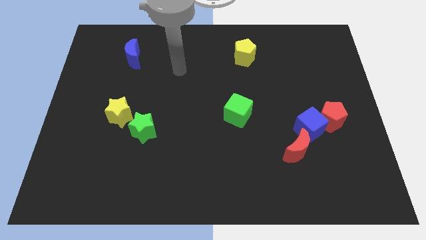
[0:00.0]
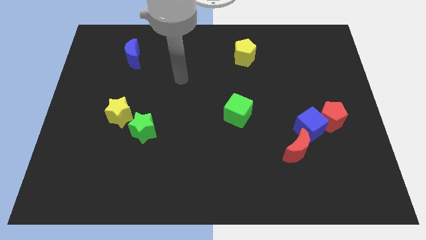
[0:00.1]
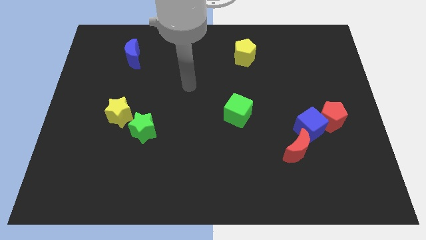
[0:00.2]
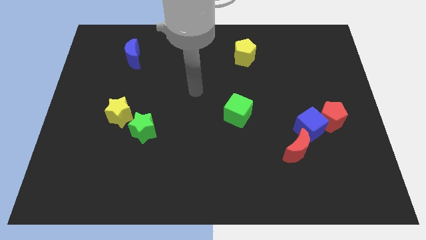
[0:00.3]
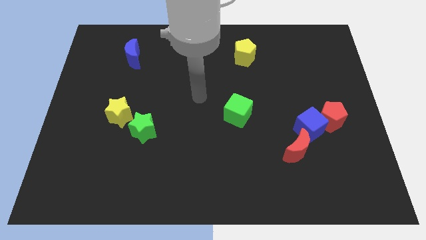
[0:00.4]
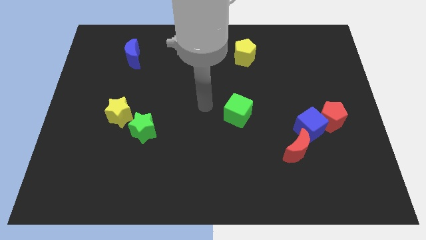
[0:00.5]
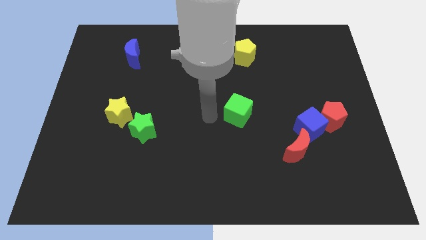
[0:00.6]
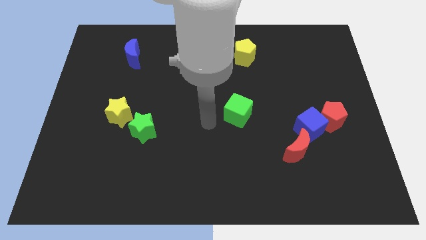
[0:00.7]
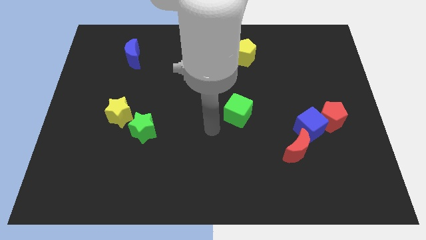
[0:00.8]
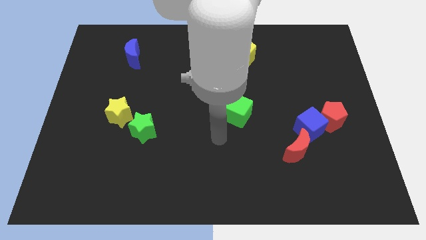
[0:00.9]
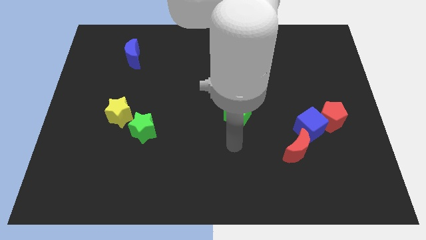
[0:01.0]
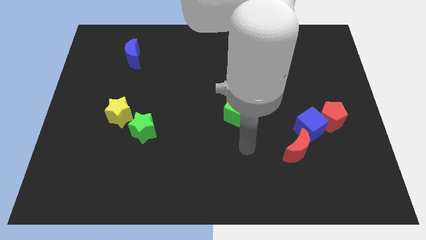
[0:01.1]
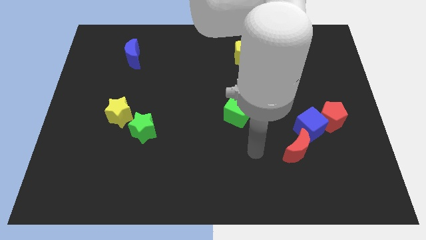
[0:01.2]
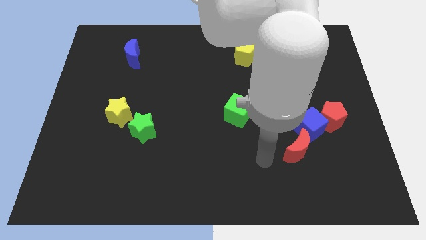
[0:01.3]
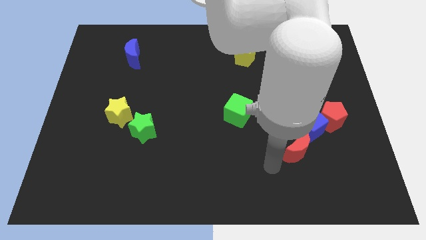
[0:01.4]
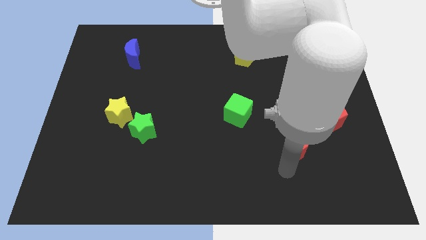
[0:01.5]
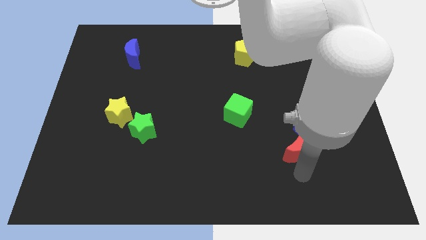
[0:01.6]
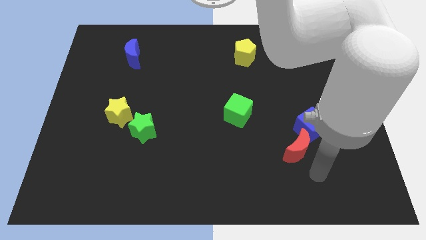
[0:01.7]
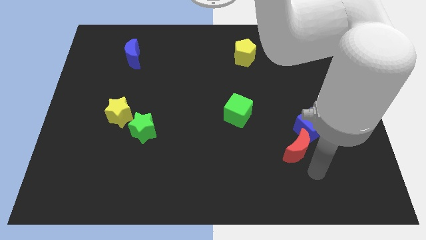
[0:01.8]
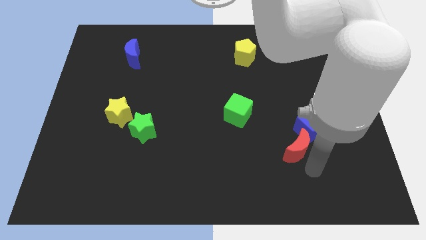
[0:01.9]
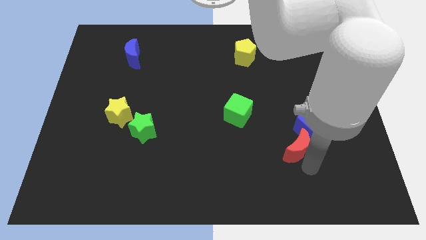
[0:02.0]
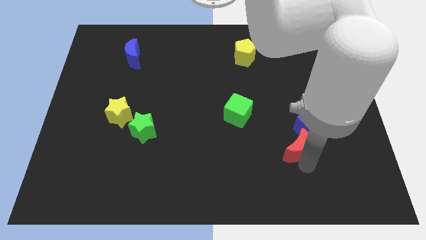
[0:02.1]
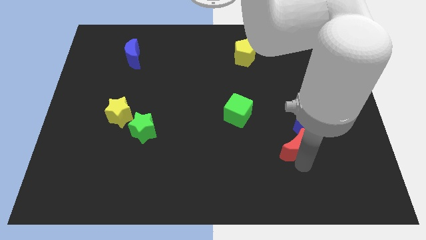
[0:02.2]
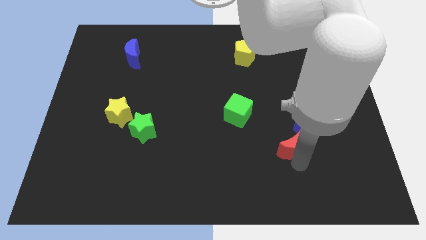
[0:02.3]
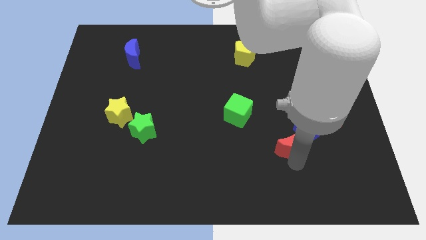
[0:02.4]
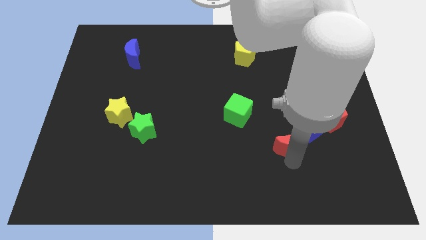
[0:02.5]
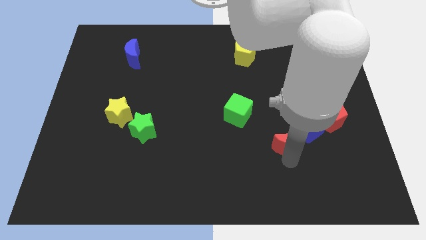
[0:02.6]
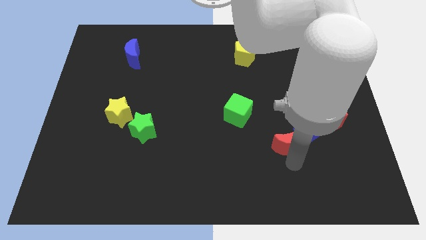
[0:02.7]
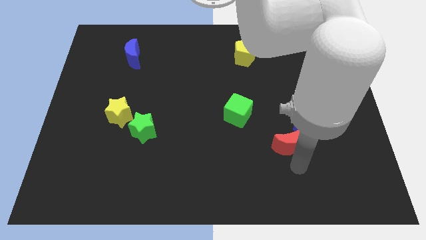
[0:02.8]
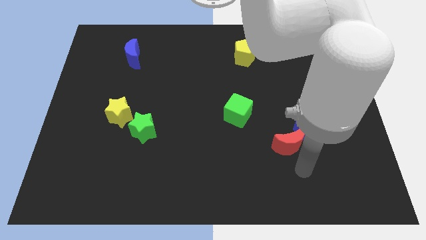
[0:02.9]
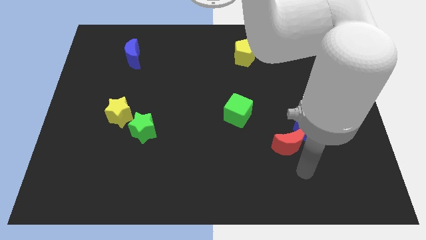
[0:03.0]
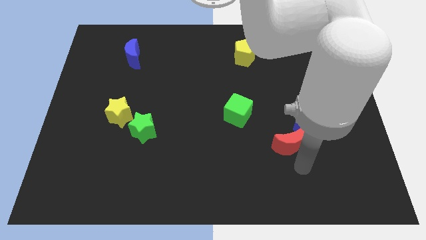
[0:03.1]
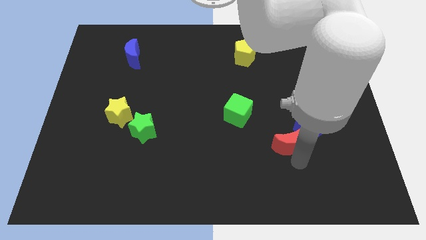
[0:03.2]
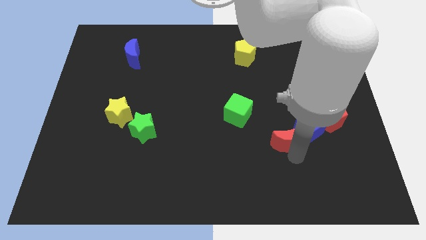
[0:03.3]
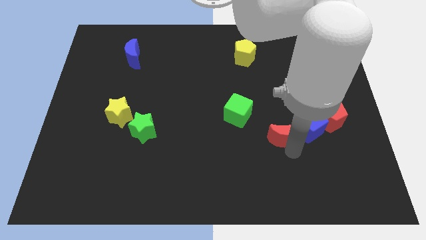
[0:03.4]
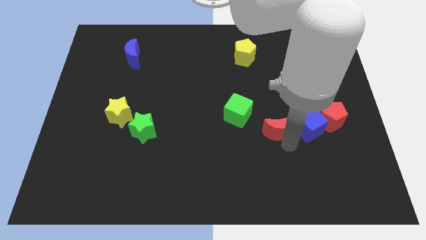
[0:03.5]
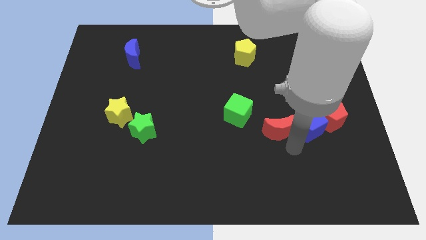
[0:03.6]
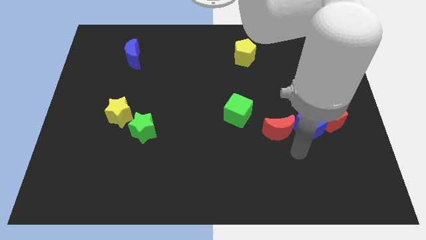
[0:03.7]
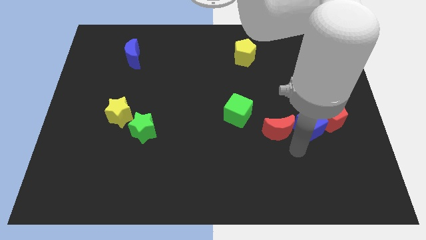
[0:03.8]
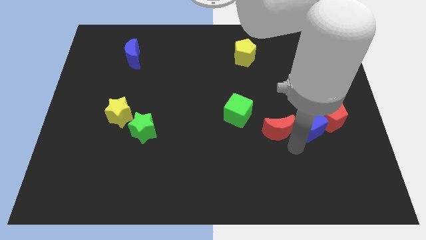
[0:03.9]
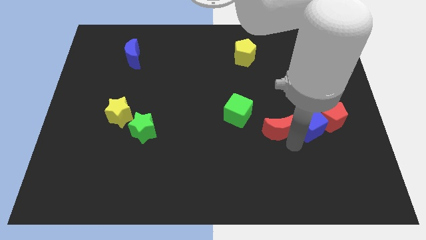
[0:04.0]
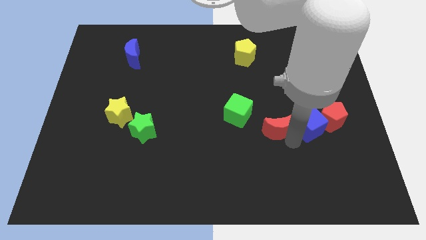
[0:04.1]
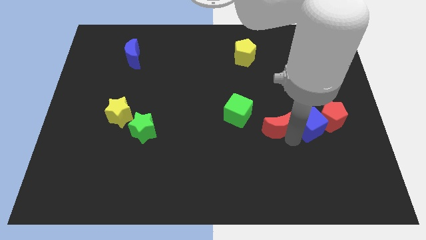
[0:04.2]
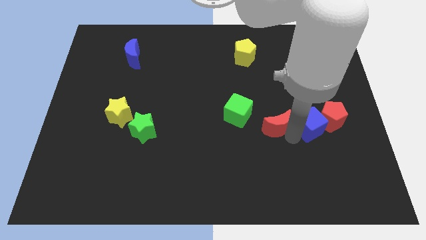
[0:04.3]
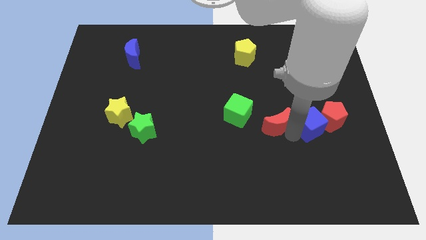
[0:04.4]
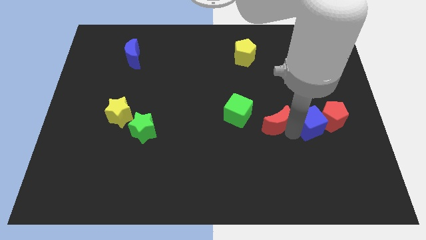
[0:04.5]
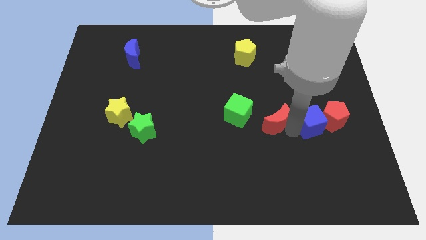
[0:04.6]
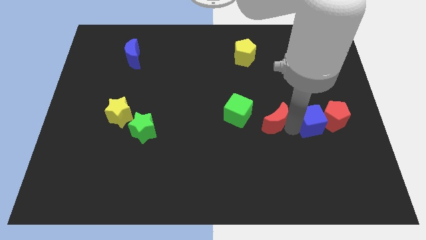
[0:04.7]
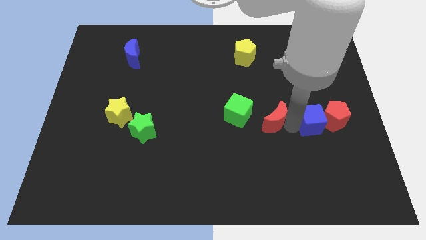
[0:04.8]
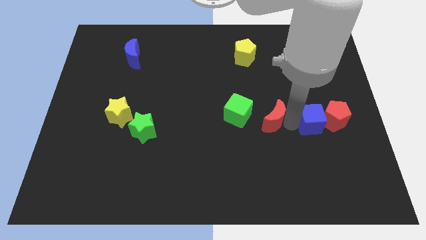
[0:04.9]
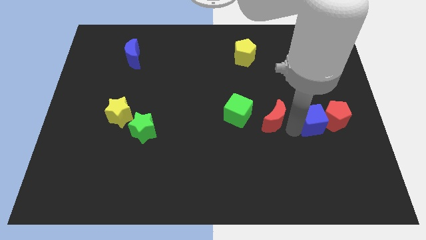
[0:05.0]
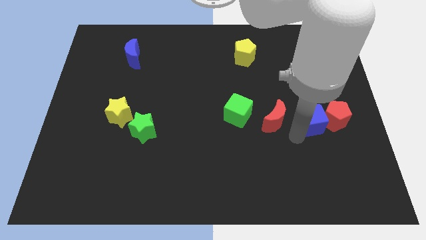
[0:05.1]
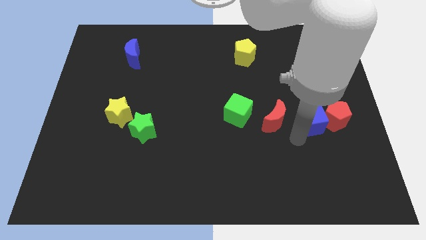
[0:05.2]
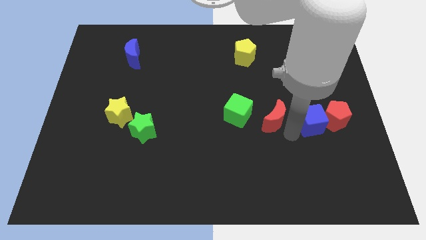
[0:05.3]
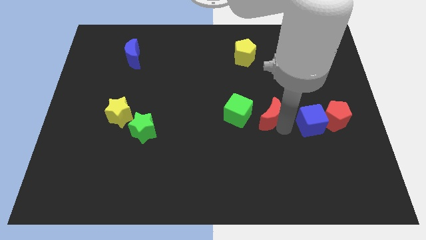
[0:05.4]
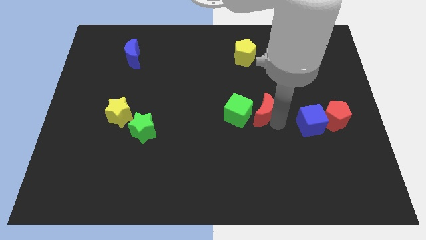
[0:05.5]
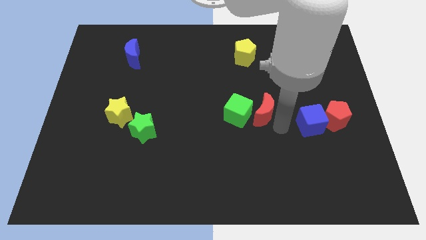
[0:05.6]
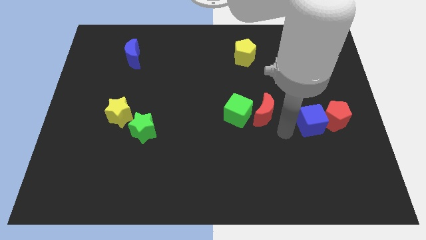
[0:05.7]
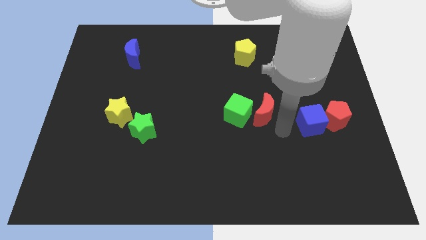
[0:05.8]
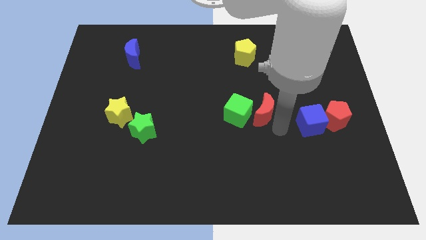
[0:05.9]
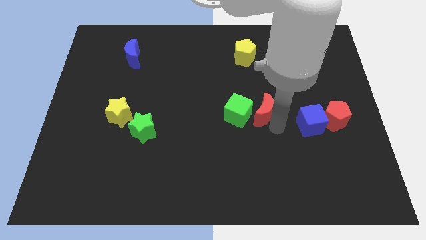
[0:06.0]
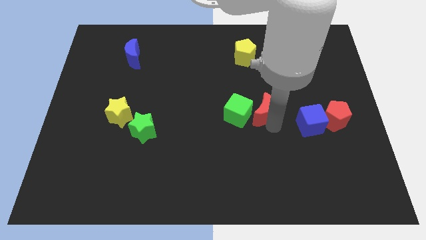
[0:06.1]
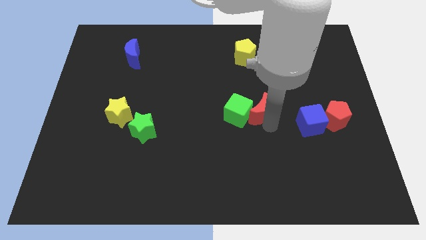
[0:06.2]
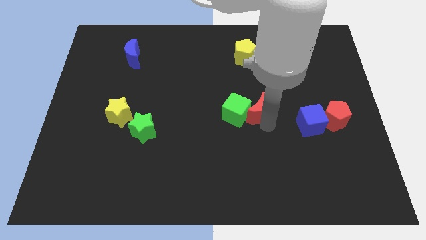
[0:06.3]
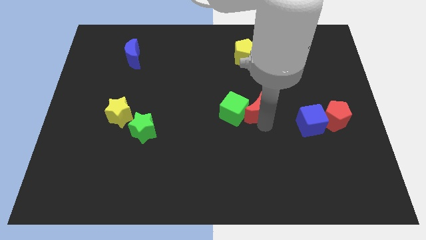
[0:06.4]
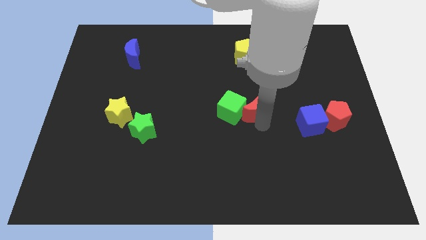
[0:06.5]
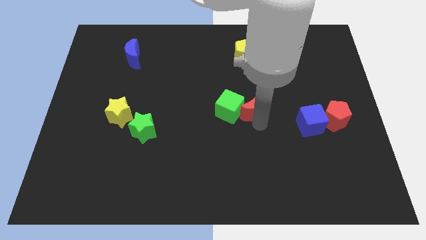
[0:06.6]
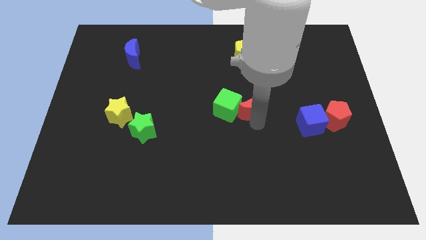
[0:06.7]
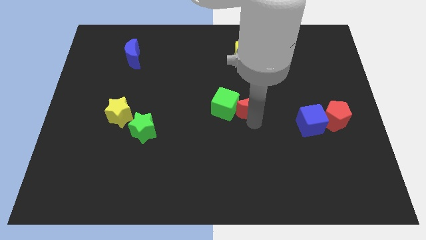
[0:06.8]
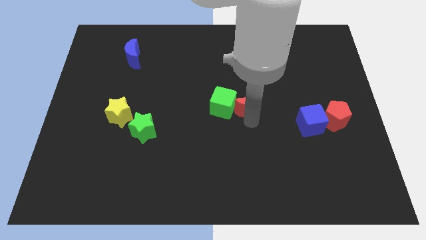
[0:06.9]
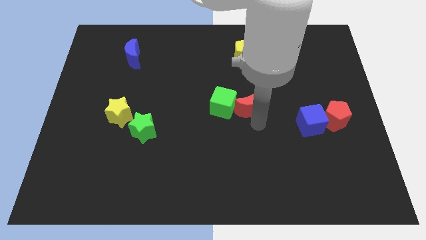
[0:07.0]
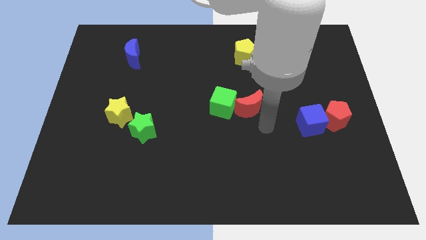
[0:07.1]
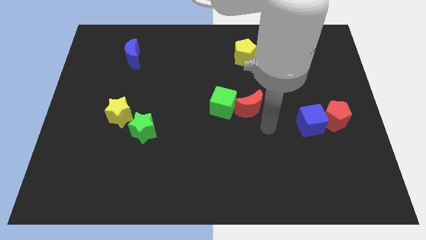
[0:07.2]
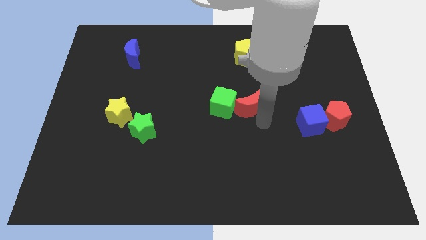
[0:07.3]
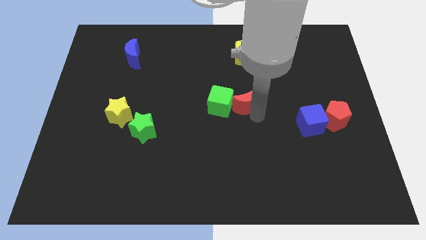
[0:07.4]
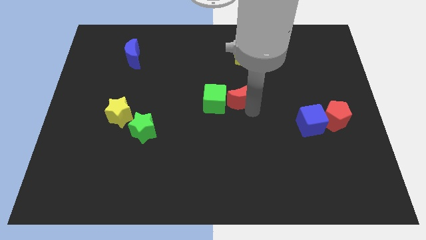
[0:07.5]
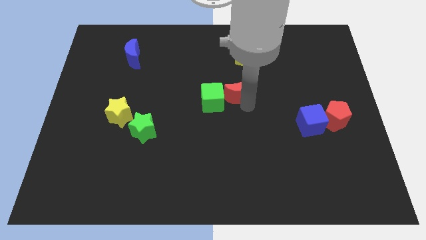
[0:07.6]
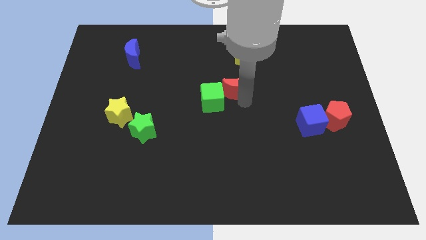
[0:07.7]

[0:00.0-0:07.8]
slide the red moon upwards and to the left diagonally
